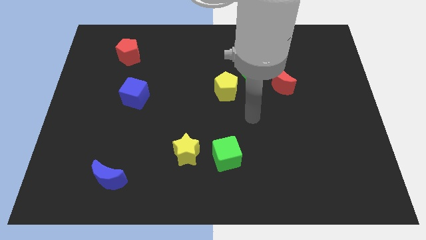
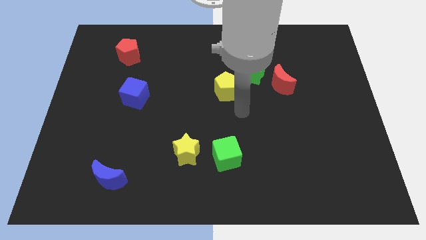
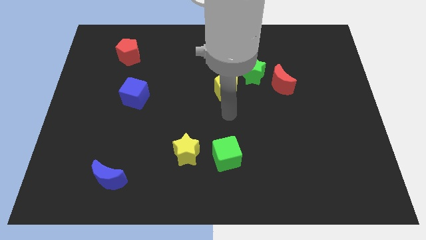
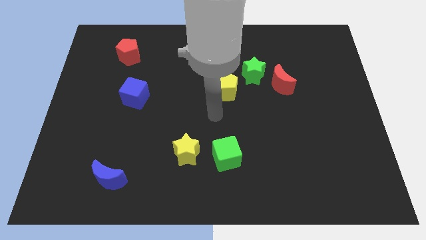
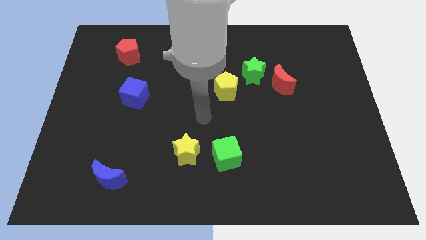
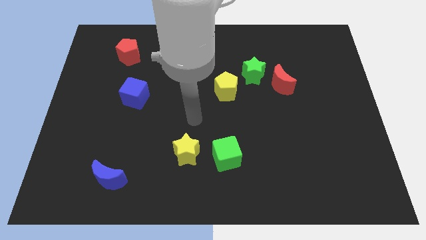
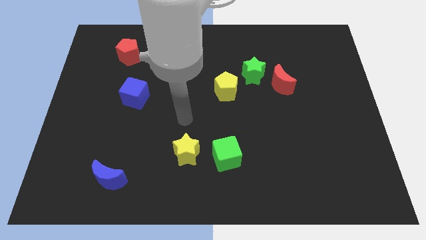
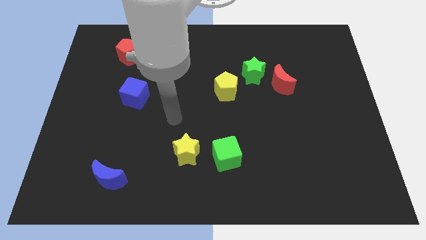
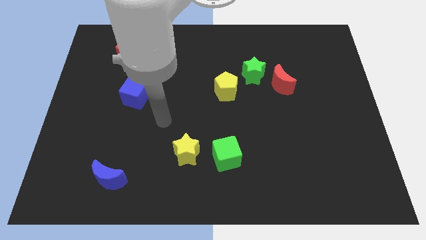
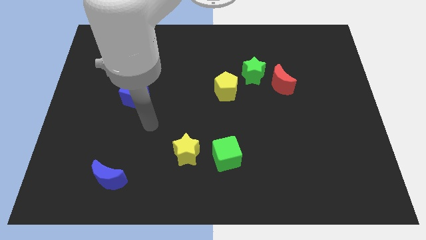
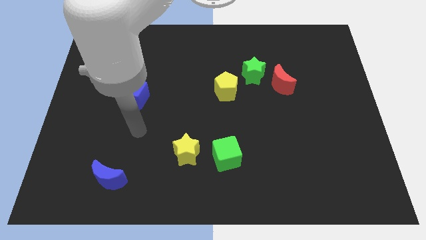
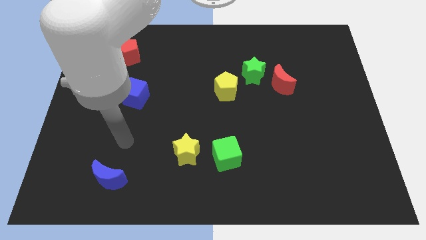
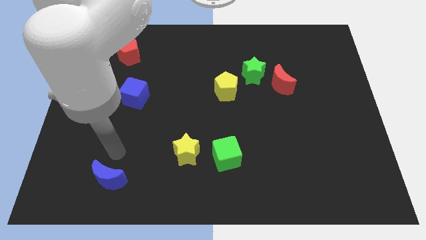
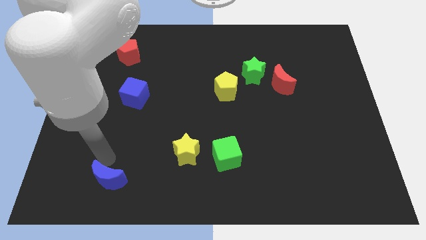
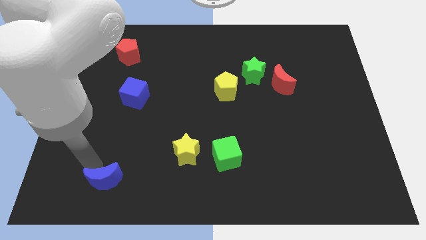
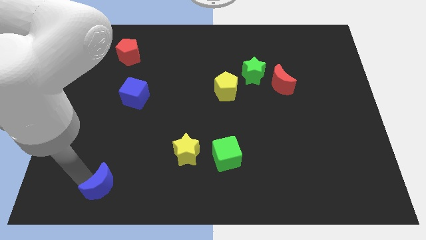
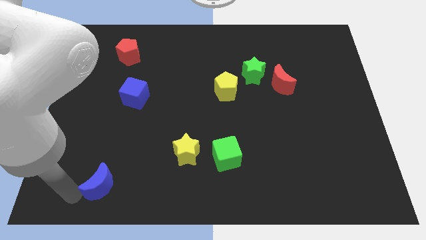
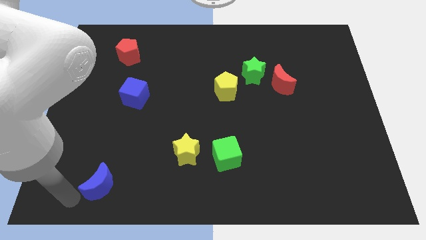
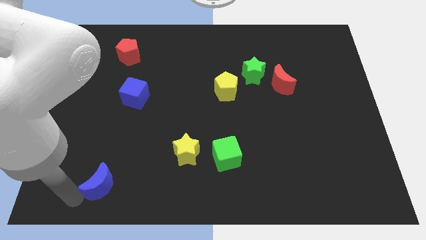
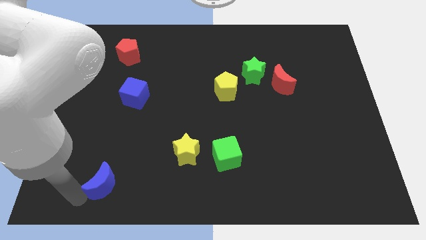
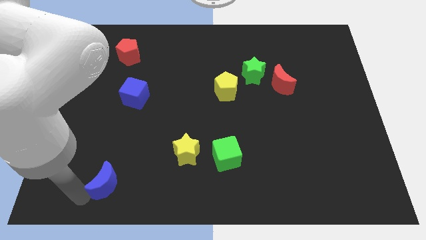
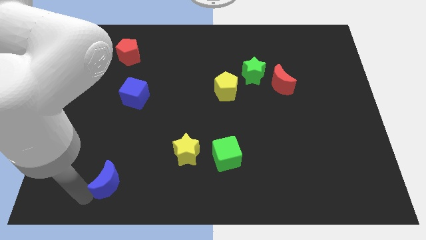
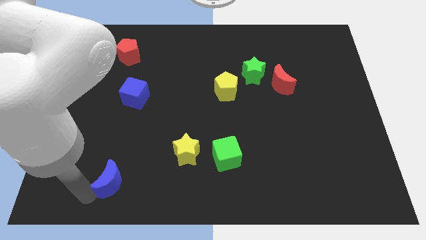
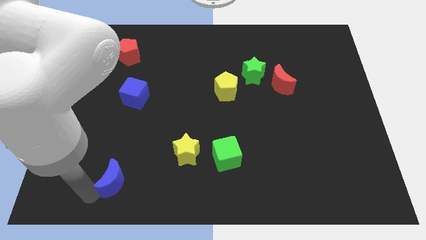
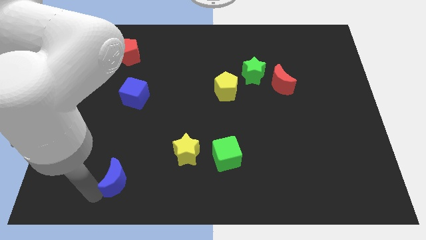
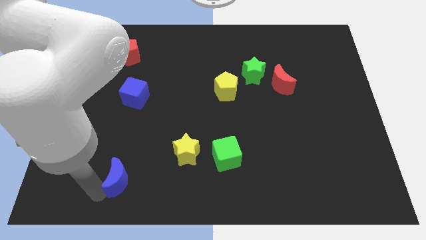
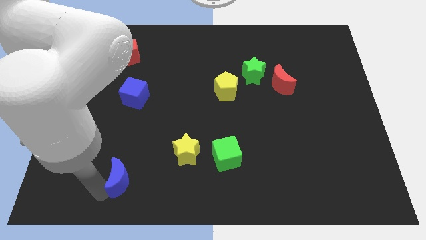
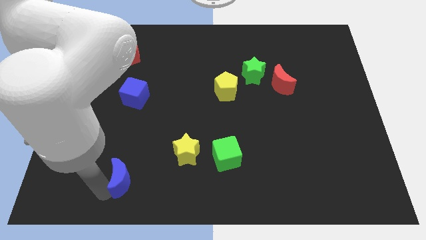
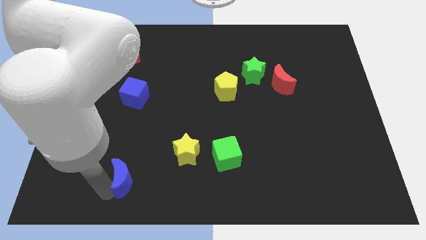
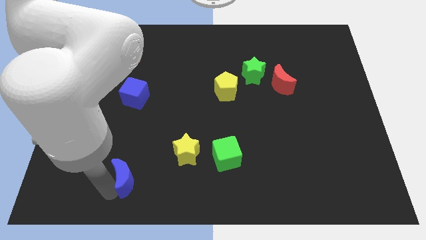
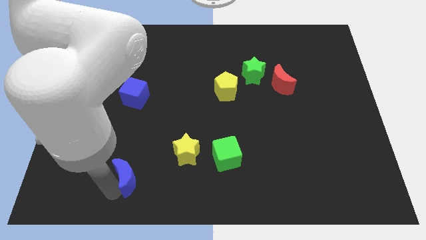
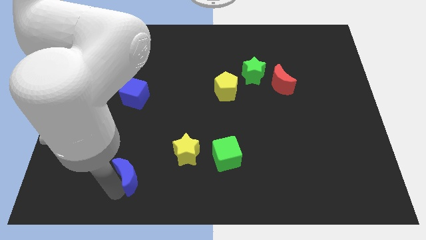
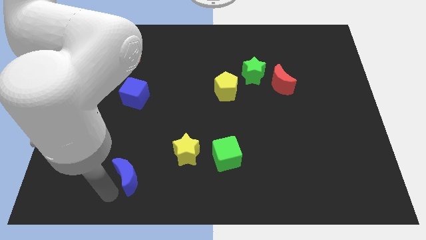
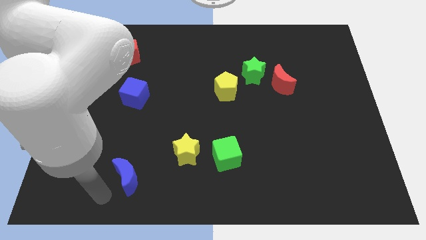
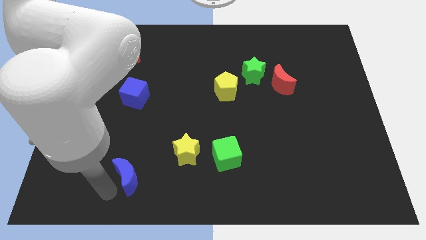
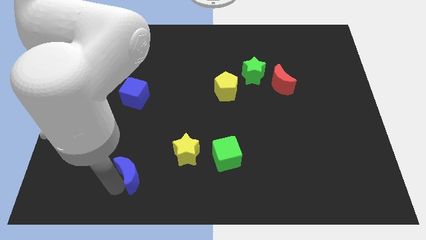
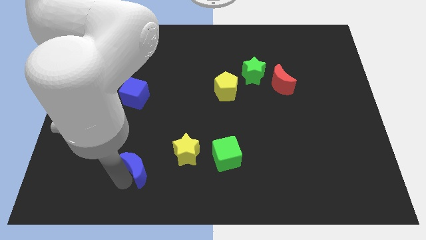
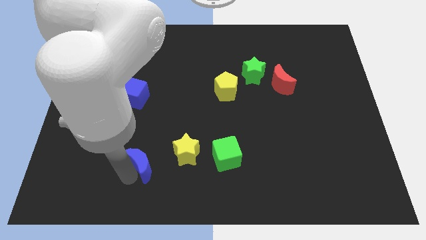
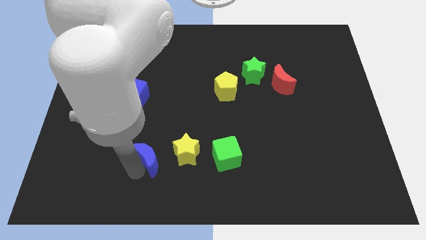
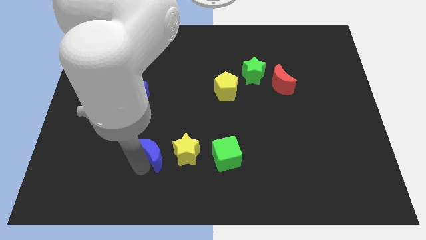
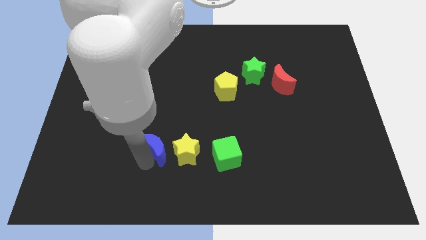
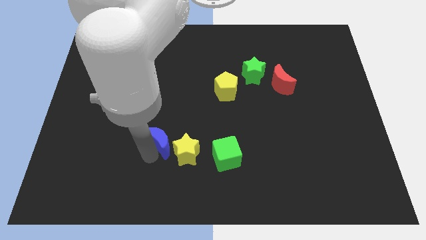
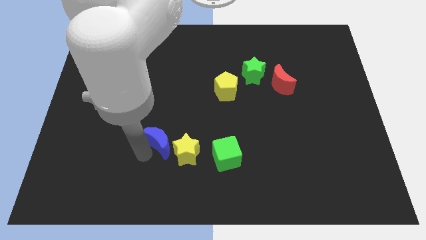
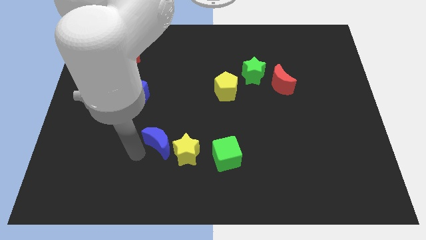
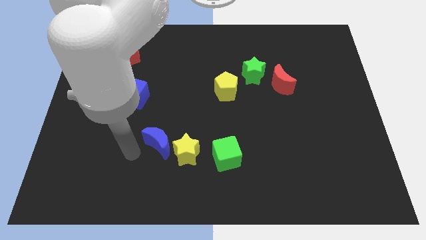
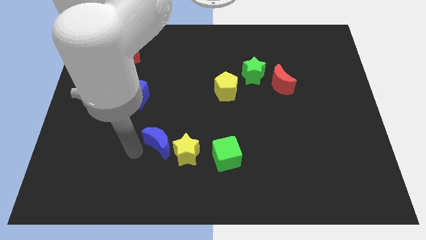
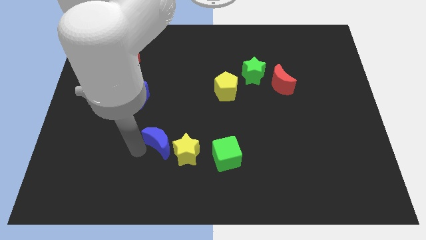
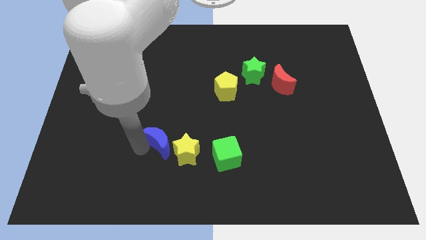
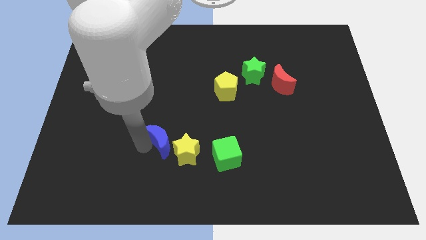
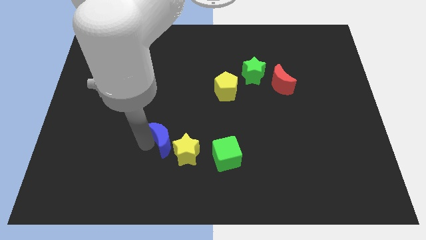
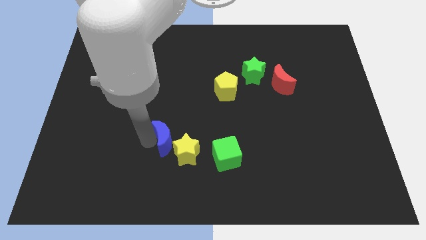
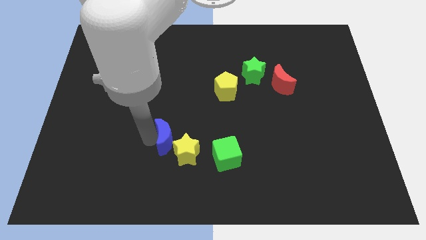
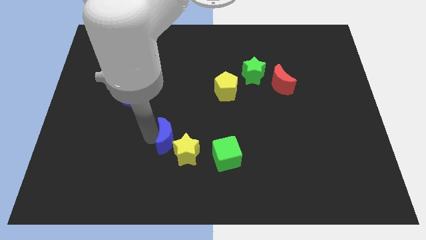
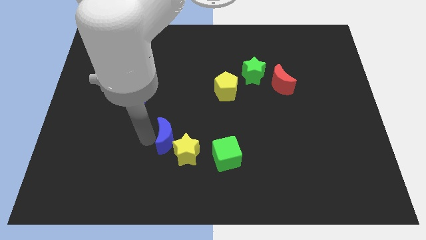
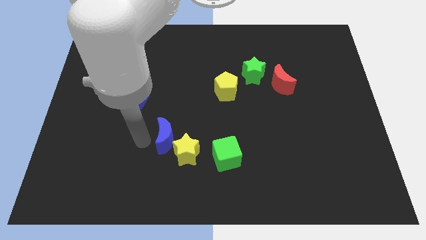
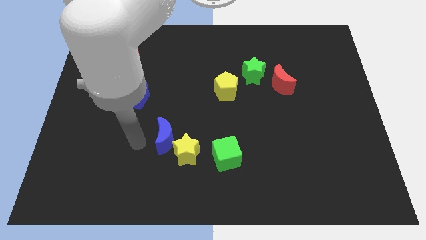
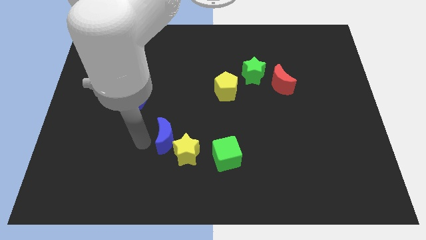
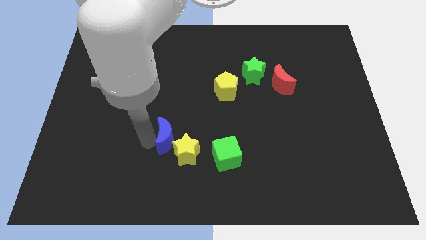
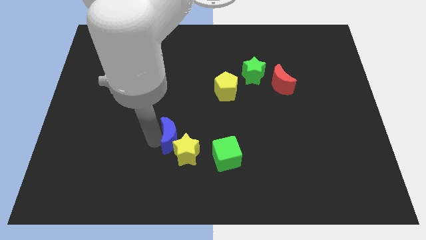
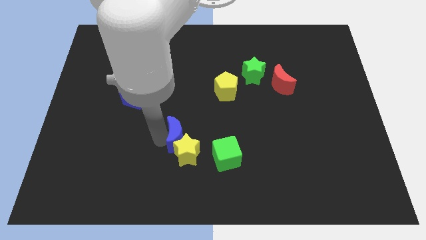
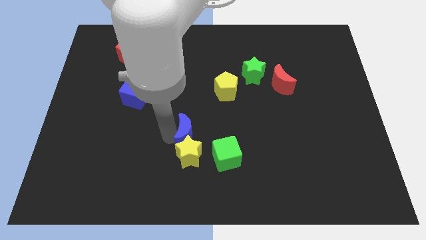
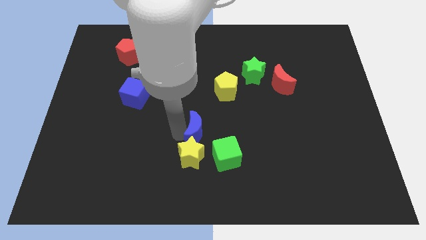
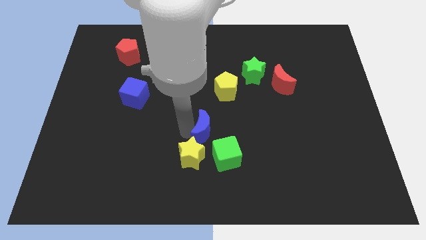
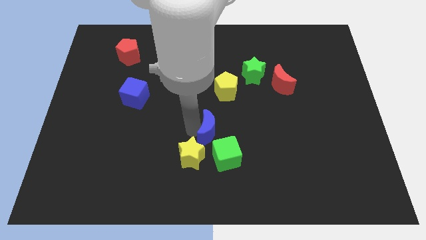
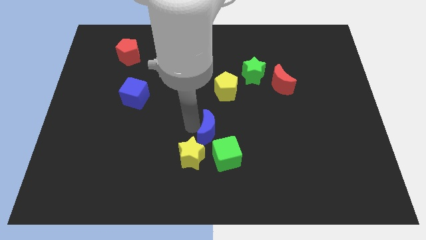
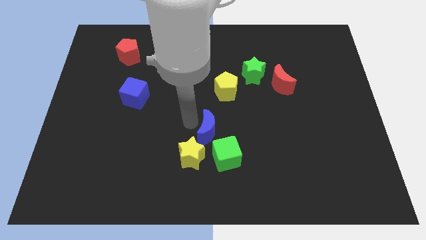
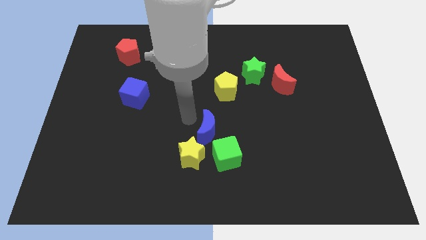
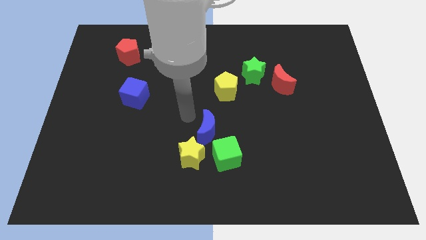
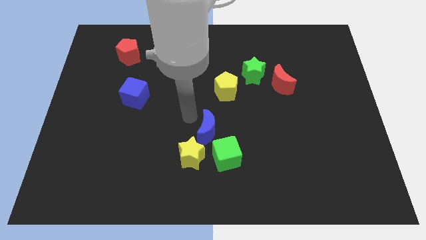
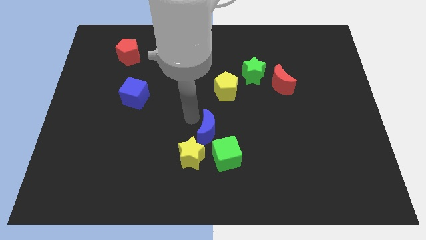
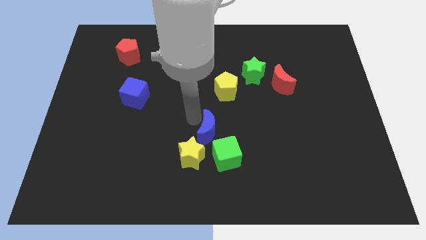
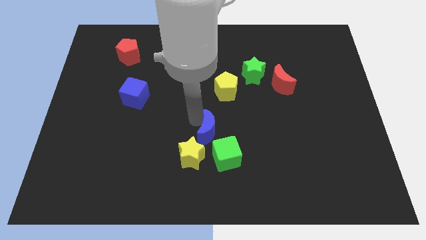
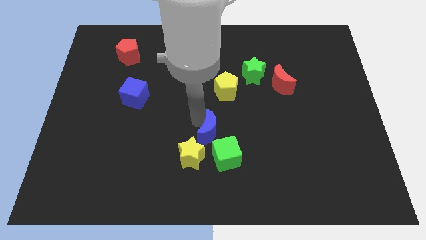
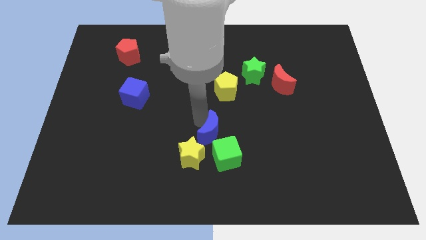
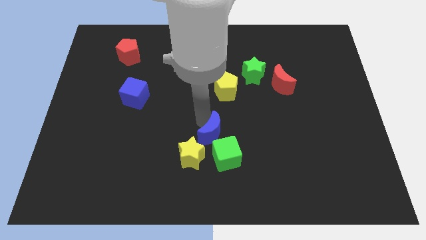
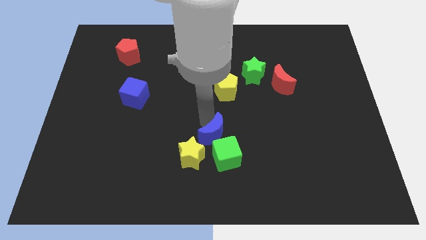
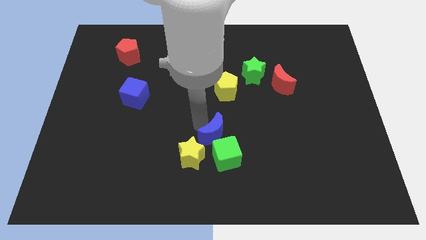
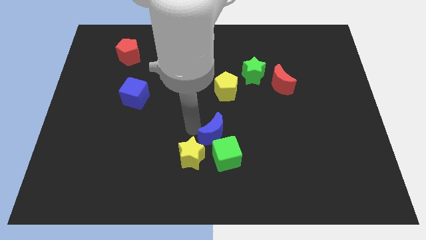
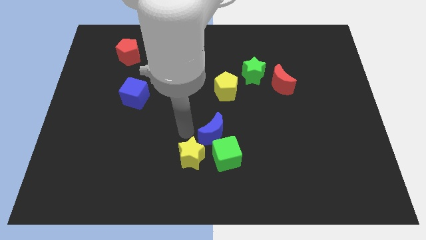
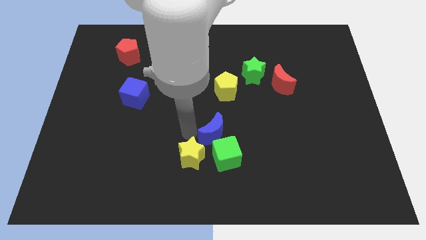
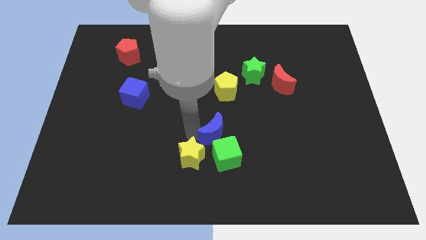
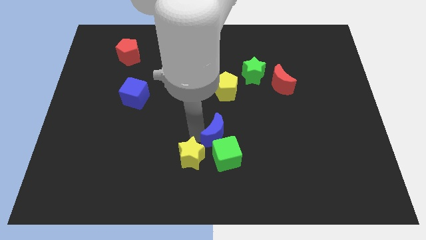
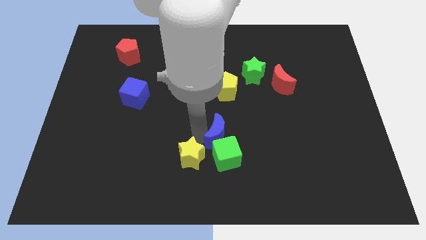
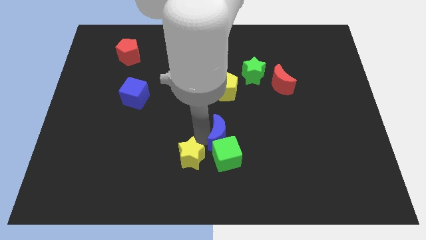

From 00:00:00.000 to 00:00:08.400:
slide the blue moon diagonally up and to the right of the green cube

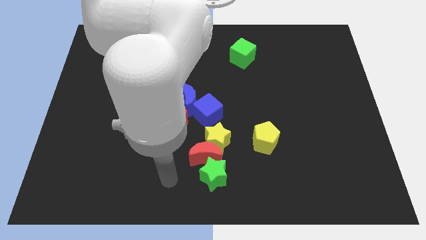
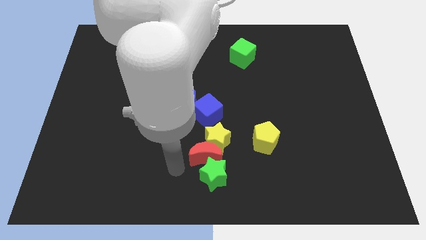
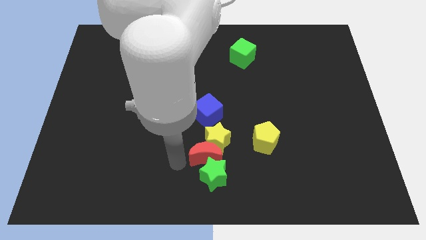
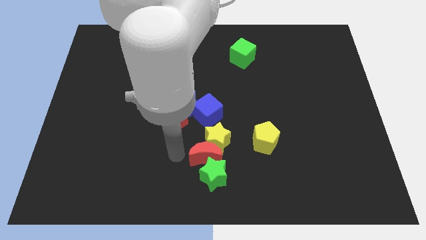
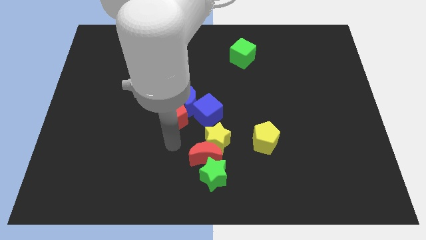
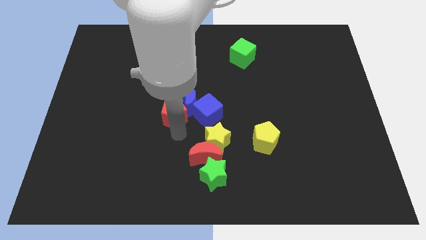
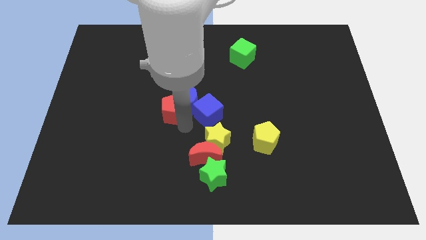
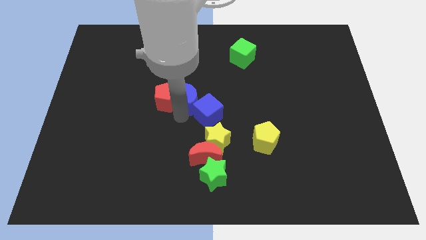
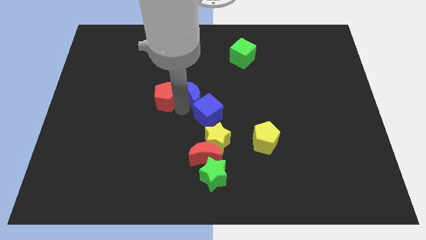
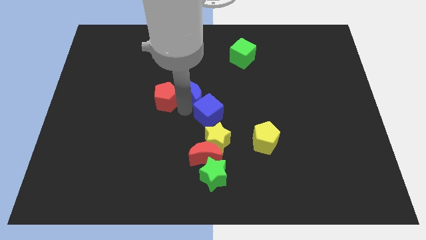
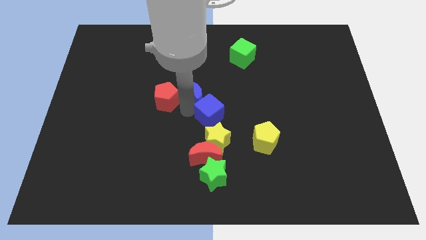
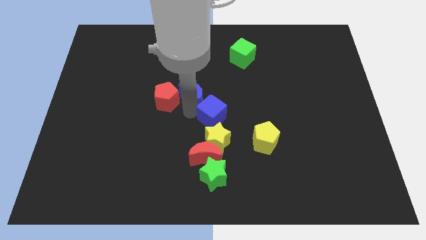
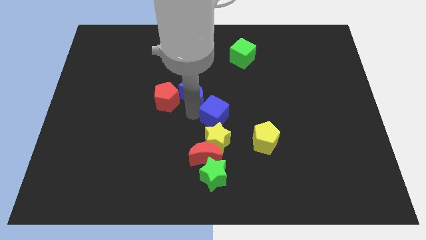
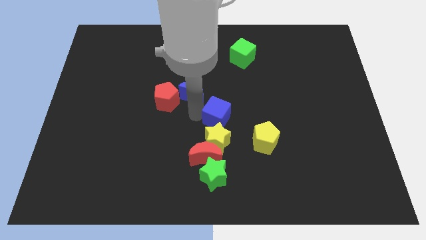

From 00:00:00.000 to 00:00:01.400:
move the blue cube to the top left of the yellow pentagon
